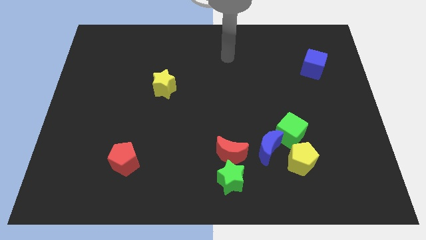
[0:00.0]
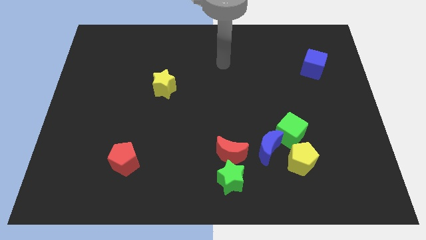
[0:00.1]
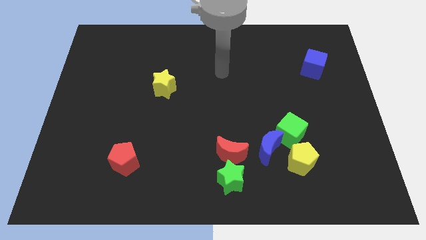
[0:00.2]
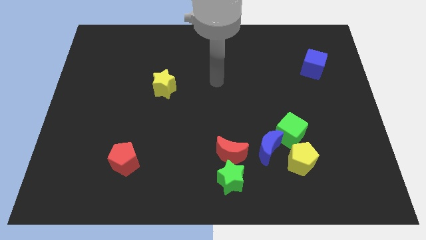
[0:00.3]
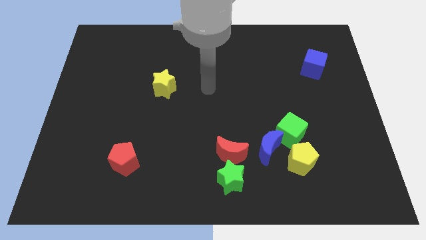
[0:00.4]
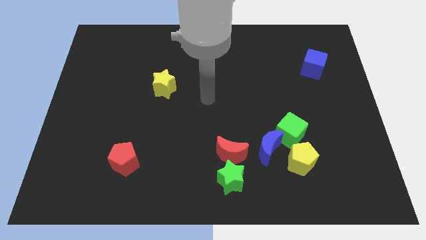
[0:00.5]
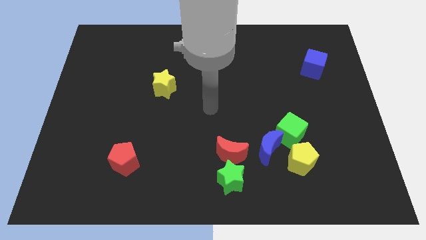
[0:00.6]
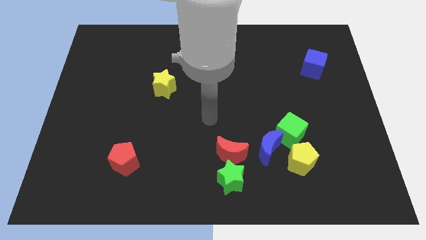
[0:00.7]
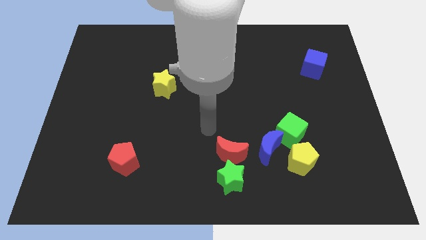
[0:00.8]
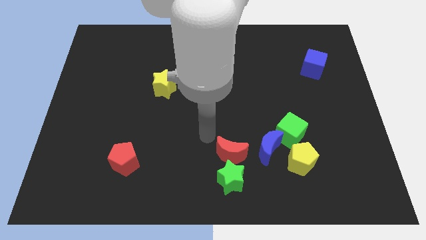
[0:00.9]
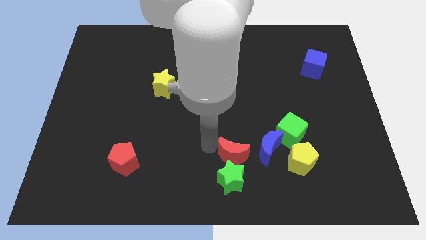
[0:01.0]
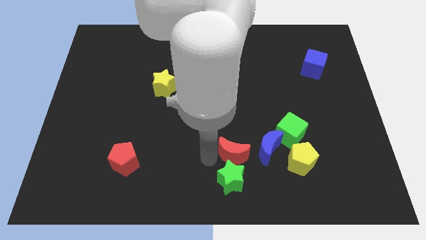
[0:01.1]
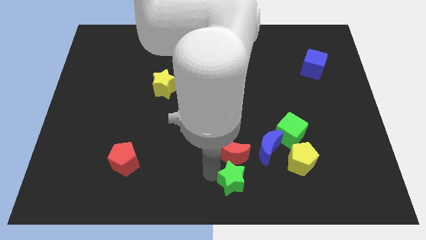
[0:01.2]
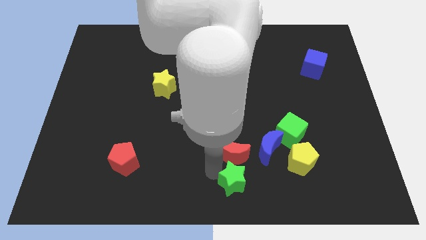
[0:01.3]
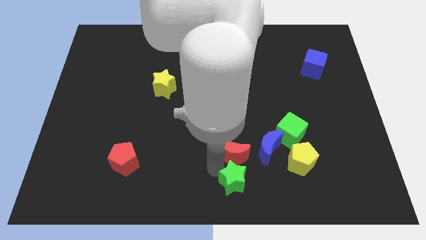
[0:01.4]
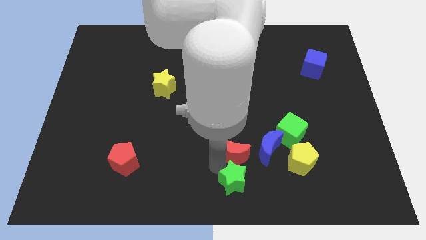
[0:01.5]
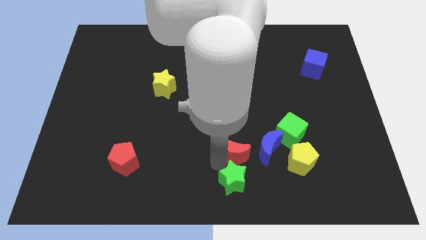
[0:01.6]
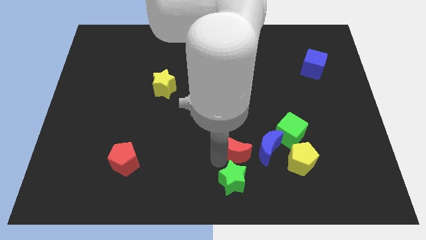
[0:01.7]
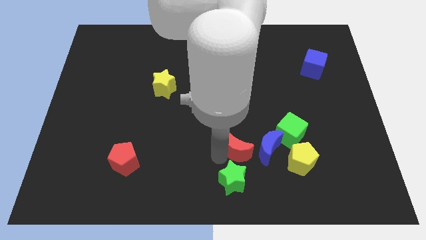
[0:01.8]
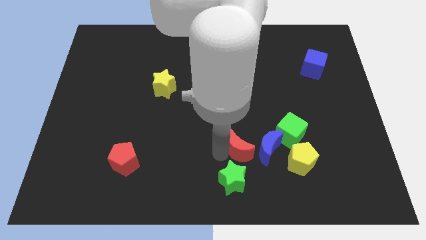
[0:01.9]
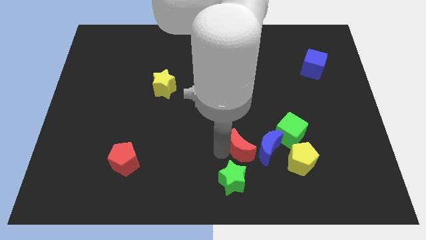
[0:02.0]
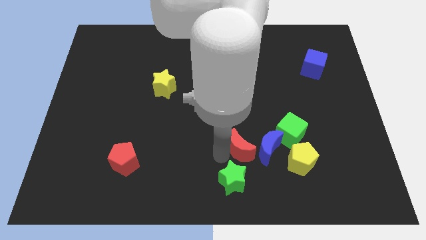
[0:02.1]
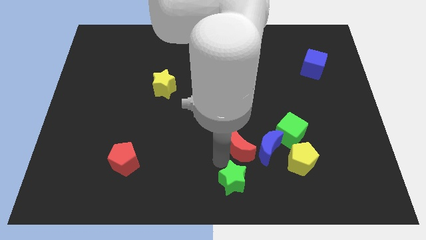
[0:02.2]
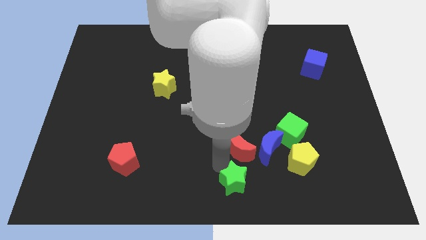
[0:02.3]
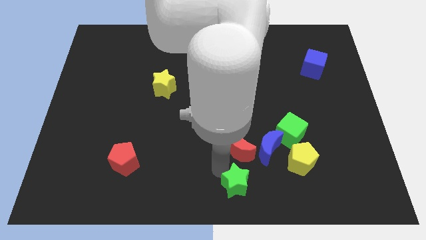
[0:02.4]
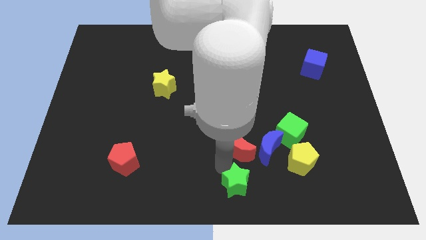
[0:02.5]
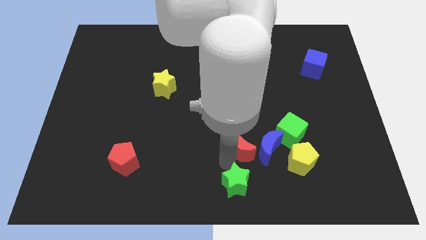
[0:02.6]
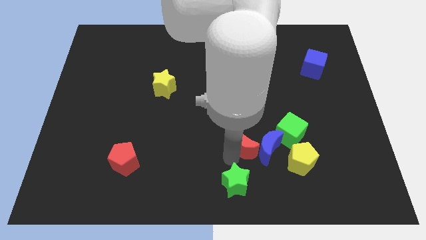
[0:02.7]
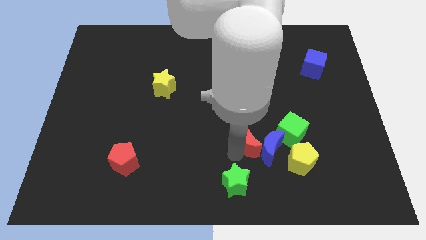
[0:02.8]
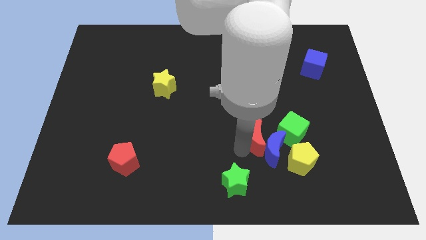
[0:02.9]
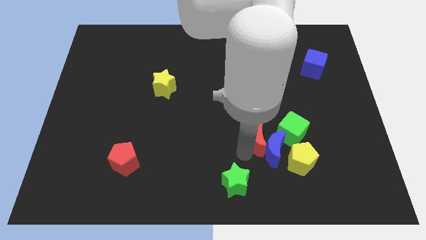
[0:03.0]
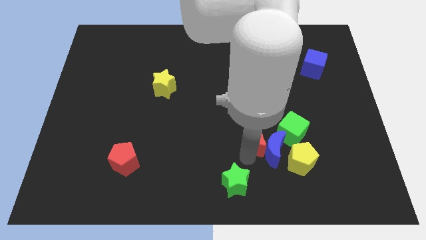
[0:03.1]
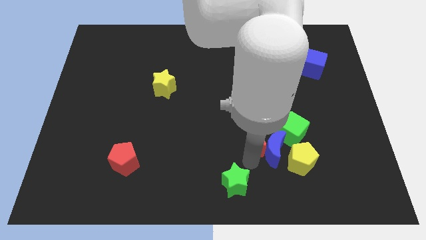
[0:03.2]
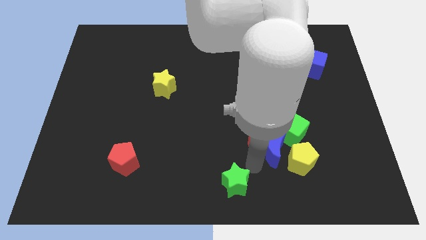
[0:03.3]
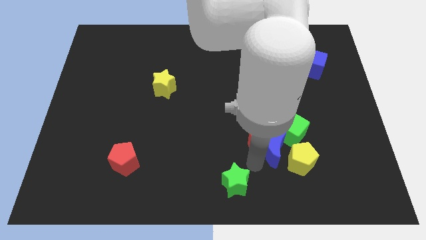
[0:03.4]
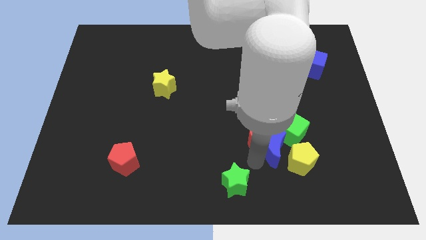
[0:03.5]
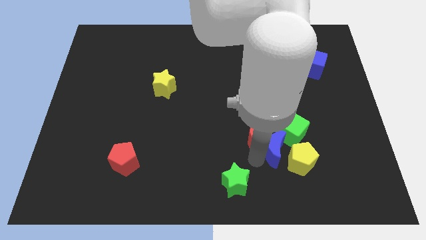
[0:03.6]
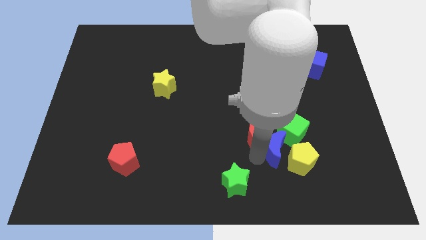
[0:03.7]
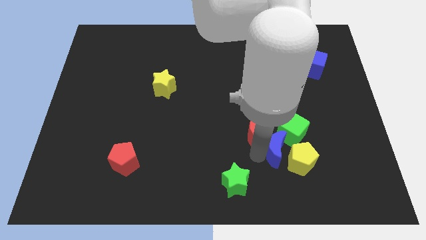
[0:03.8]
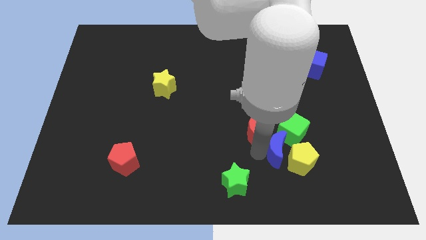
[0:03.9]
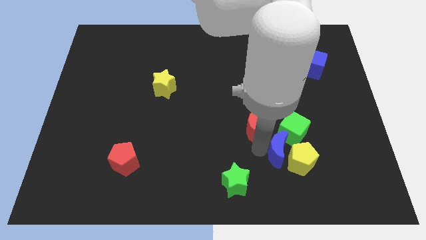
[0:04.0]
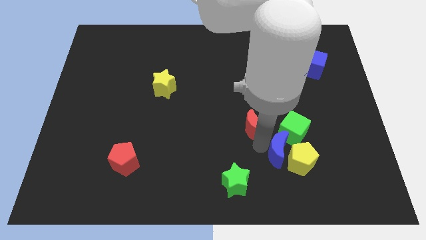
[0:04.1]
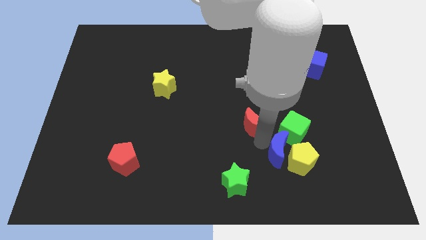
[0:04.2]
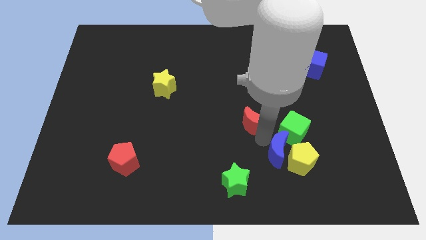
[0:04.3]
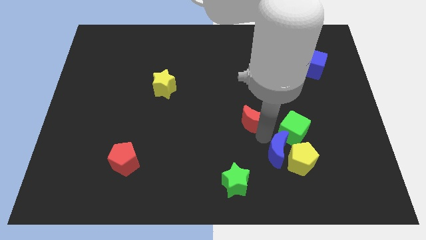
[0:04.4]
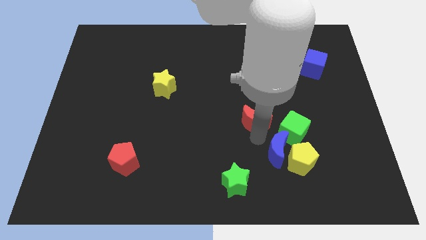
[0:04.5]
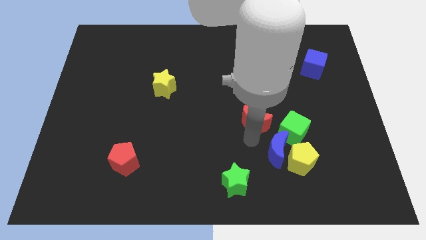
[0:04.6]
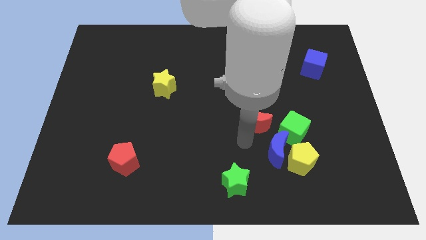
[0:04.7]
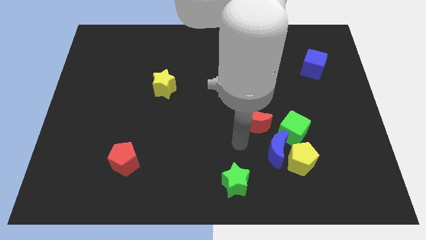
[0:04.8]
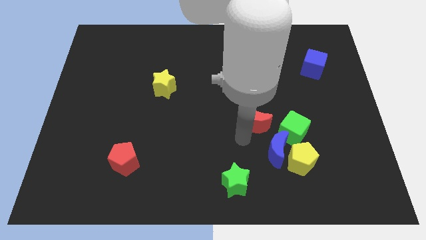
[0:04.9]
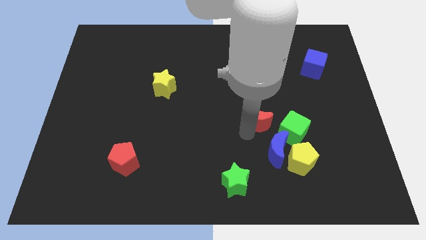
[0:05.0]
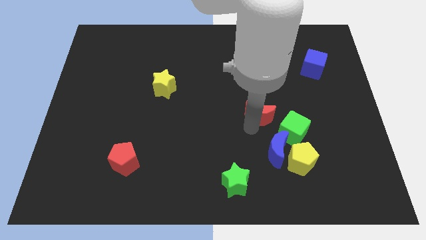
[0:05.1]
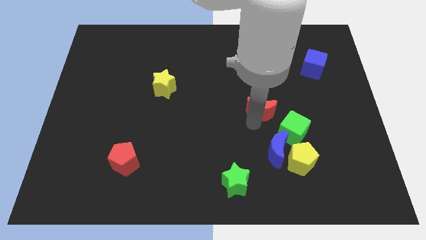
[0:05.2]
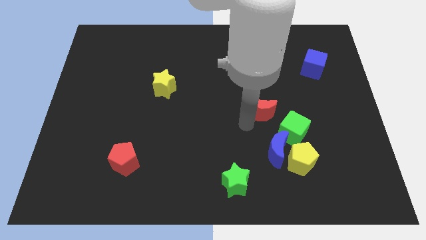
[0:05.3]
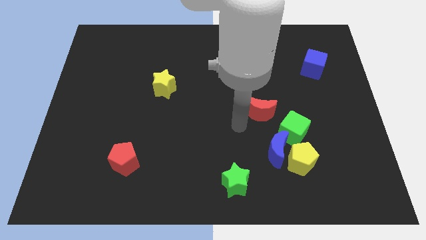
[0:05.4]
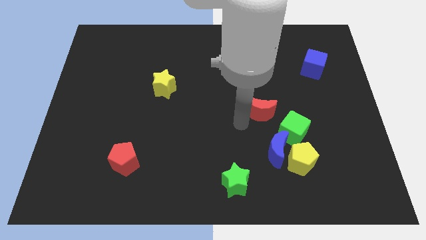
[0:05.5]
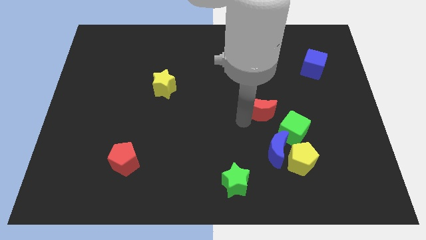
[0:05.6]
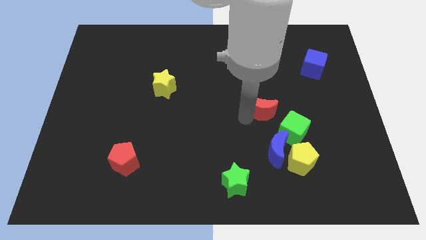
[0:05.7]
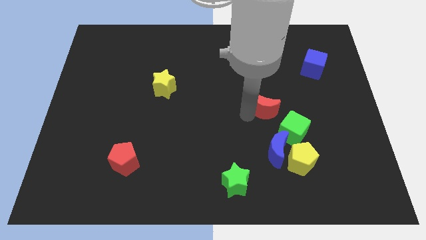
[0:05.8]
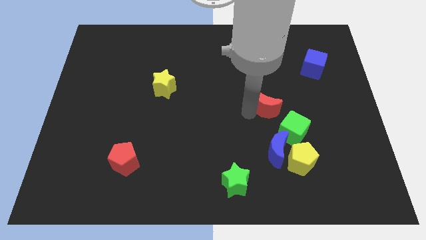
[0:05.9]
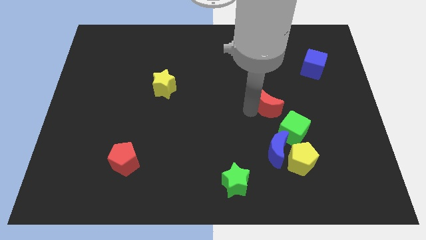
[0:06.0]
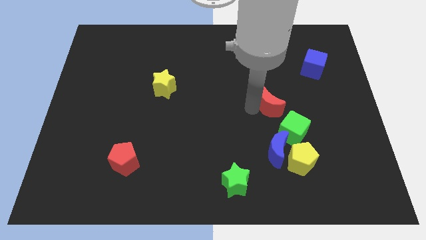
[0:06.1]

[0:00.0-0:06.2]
move the red moon above the green cube
